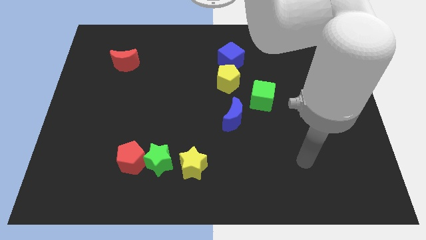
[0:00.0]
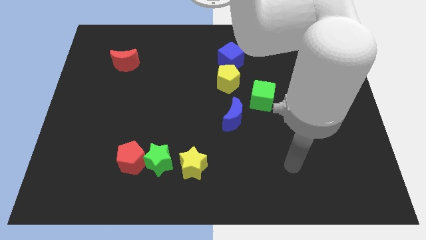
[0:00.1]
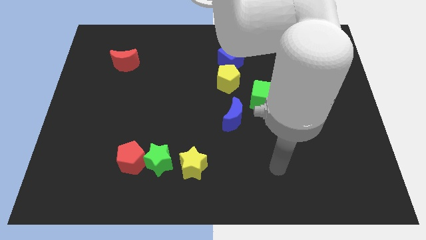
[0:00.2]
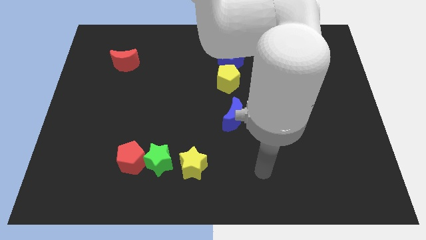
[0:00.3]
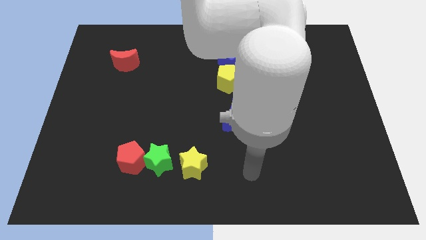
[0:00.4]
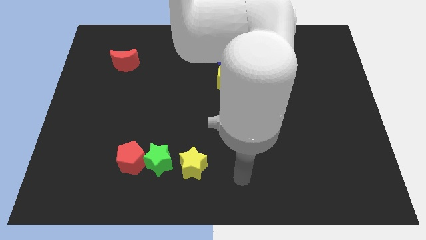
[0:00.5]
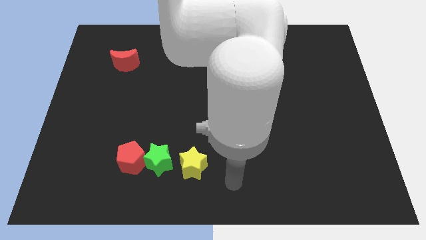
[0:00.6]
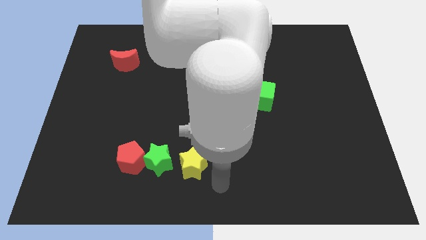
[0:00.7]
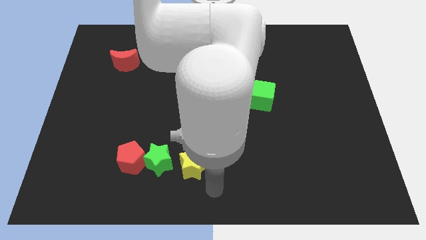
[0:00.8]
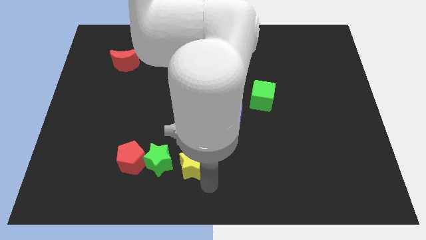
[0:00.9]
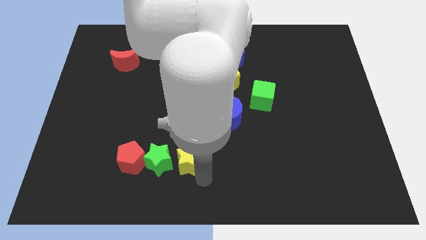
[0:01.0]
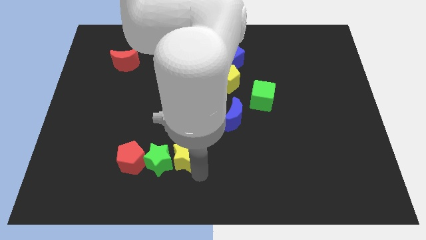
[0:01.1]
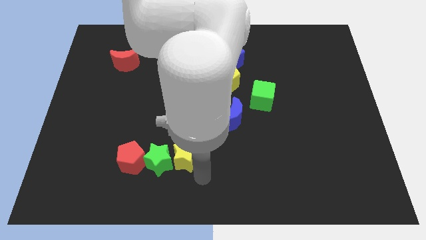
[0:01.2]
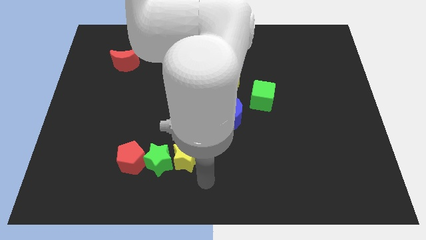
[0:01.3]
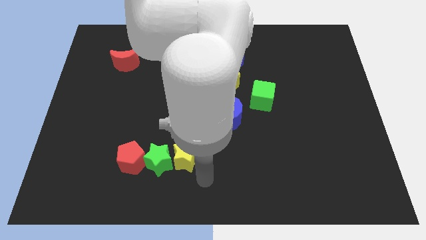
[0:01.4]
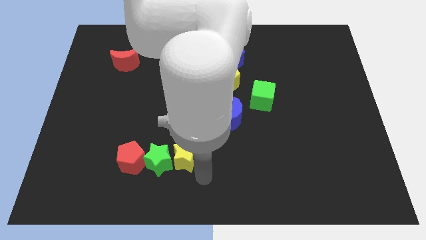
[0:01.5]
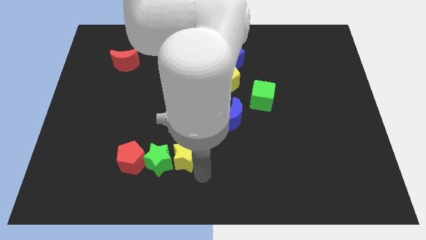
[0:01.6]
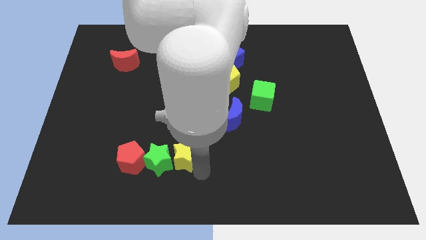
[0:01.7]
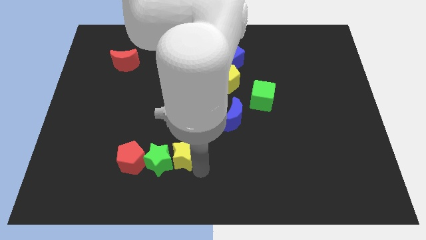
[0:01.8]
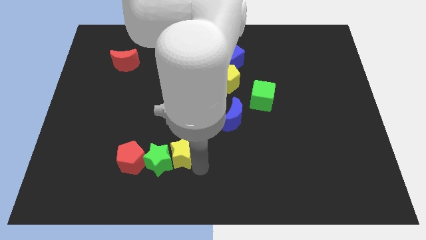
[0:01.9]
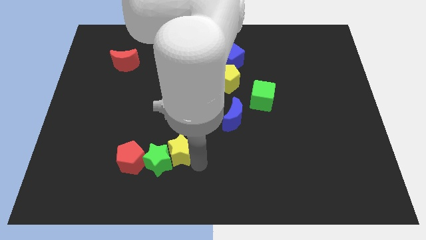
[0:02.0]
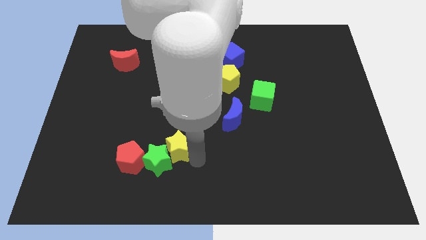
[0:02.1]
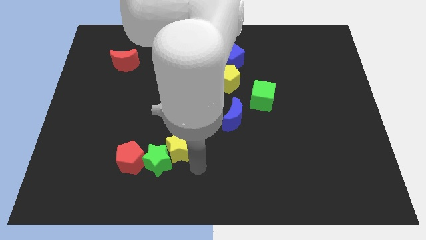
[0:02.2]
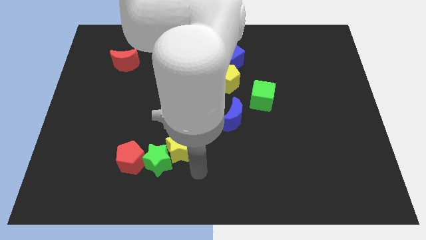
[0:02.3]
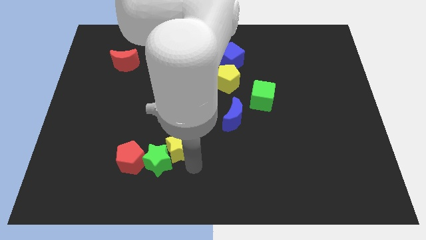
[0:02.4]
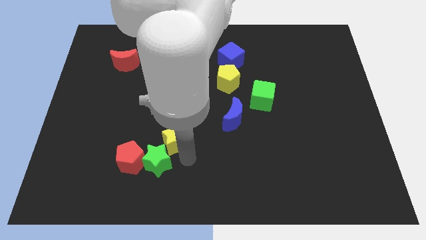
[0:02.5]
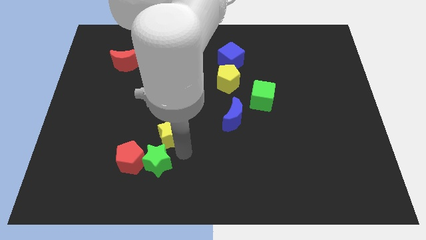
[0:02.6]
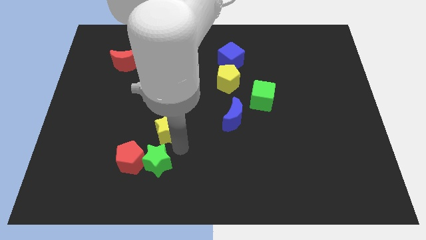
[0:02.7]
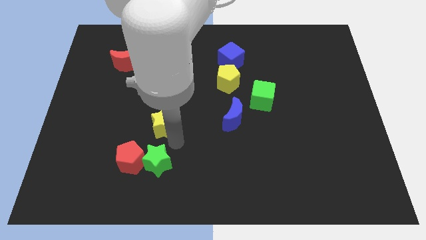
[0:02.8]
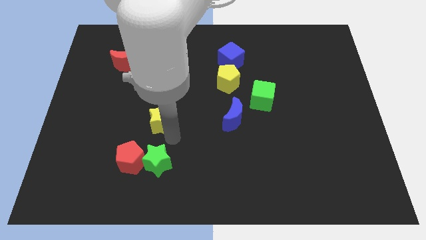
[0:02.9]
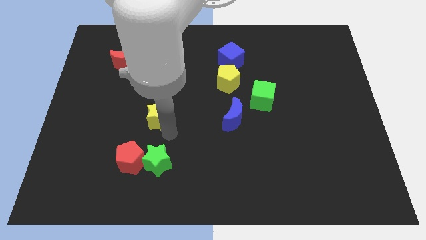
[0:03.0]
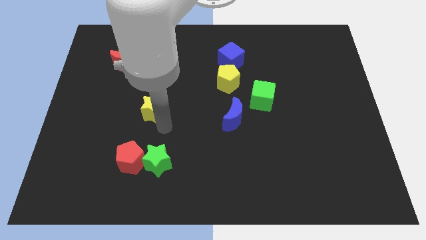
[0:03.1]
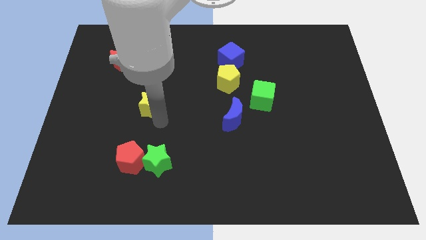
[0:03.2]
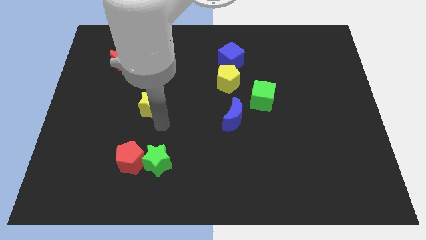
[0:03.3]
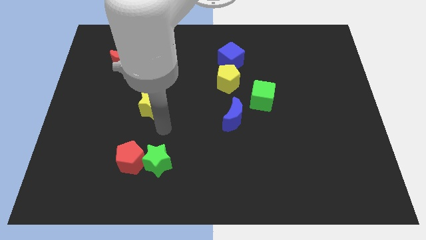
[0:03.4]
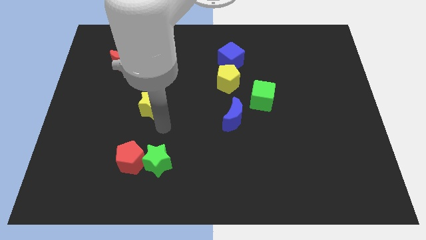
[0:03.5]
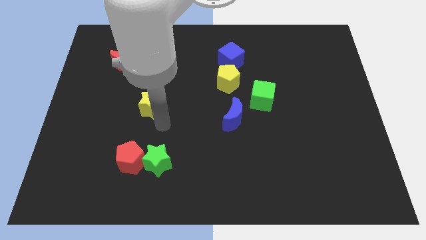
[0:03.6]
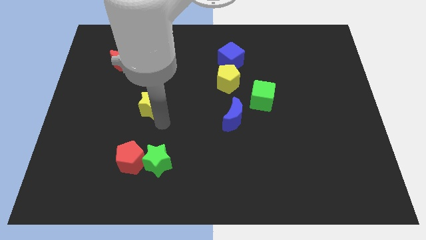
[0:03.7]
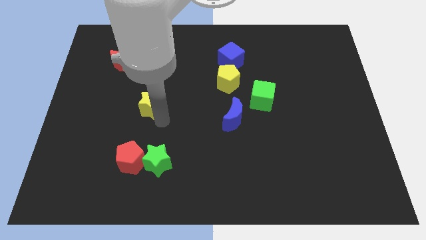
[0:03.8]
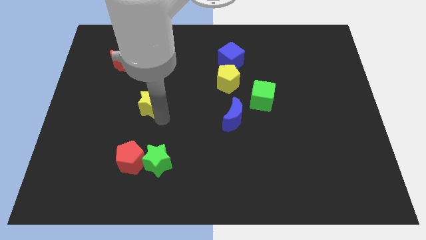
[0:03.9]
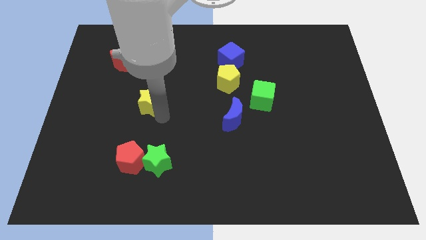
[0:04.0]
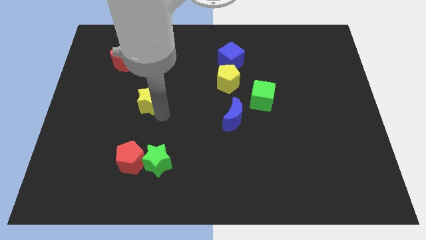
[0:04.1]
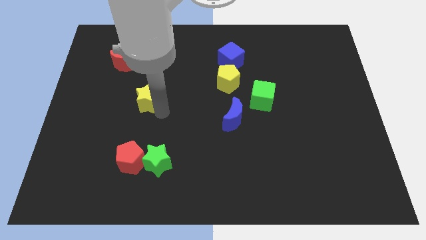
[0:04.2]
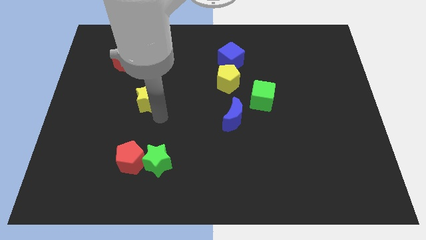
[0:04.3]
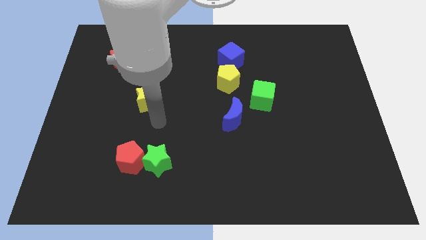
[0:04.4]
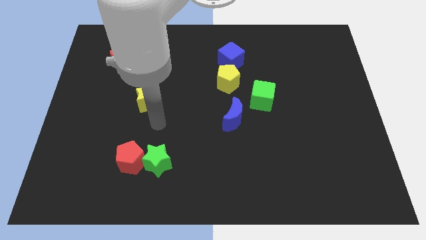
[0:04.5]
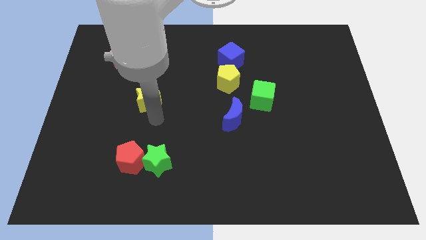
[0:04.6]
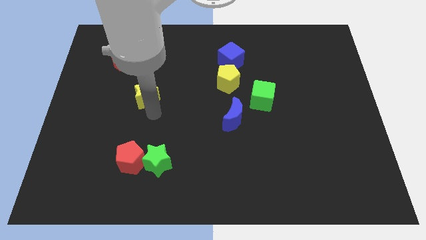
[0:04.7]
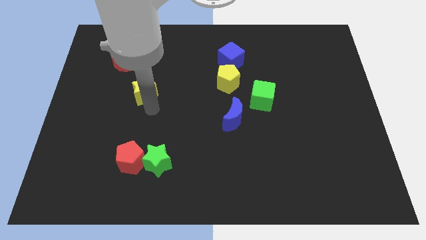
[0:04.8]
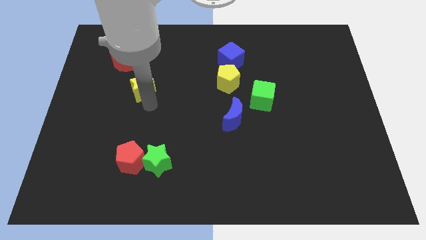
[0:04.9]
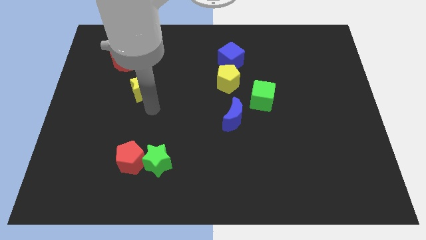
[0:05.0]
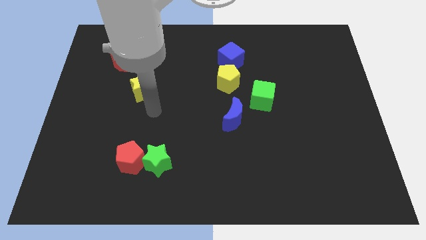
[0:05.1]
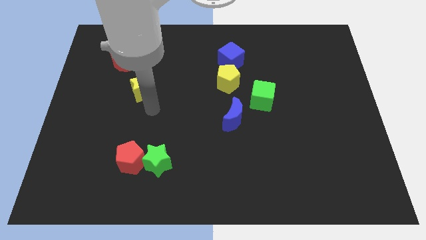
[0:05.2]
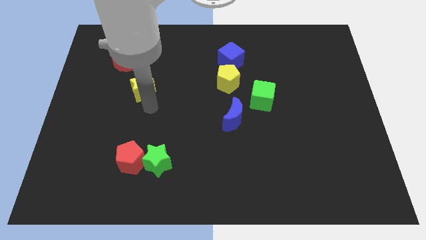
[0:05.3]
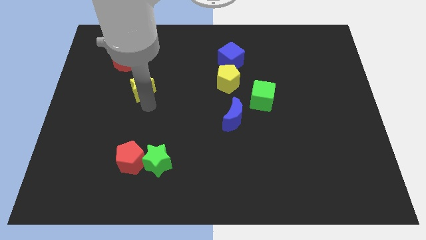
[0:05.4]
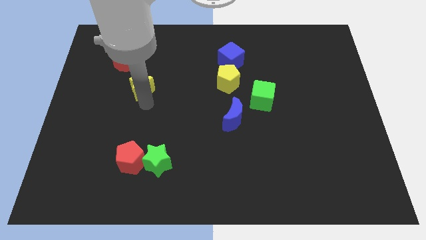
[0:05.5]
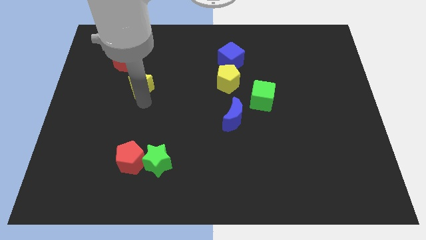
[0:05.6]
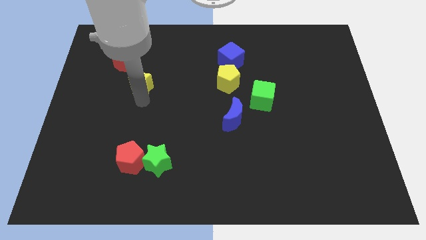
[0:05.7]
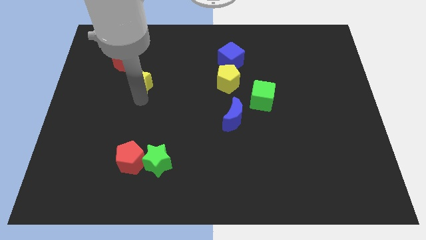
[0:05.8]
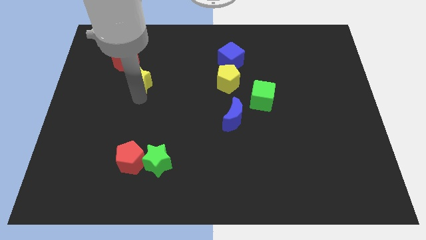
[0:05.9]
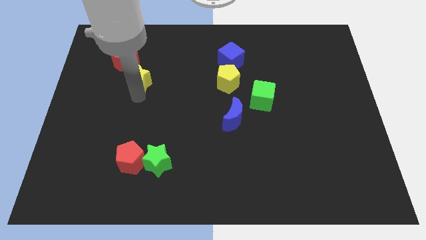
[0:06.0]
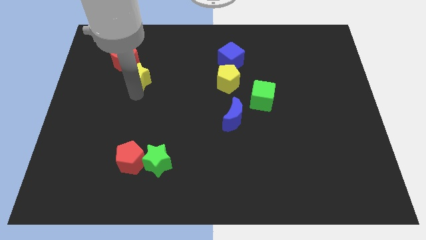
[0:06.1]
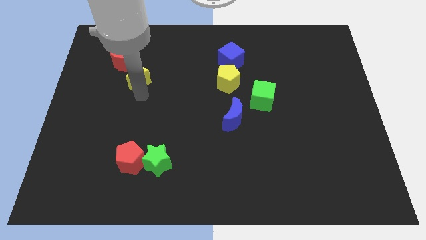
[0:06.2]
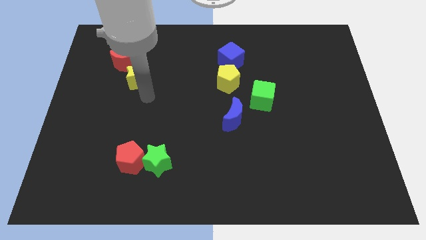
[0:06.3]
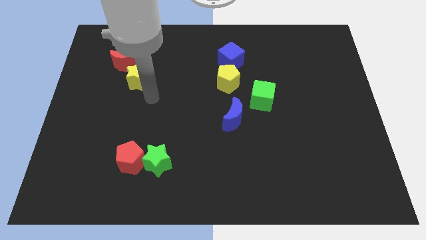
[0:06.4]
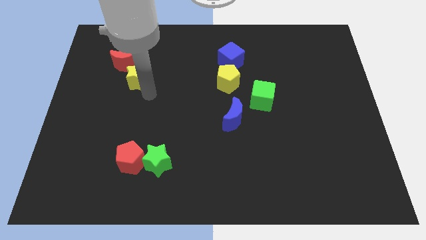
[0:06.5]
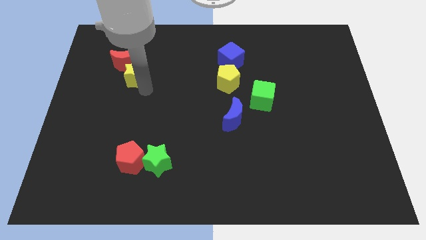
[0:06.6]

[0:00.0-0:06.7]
move the yellow star towards the red moon

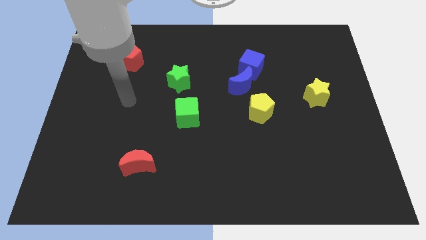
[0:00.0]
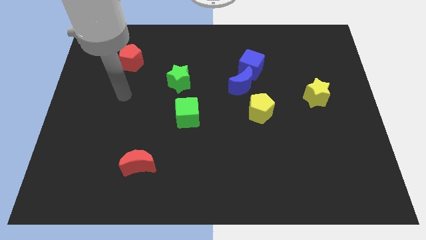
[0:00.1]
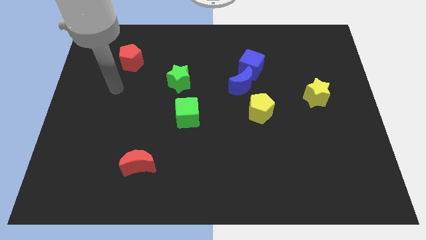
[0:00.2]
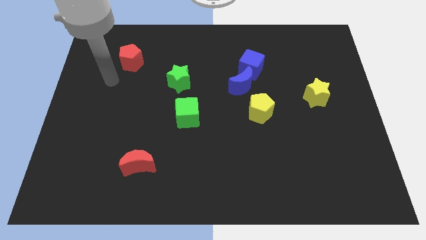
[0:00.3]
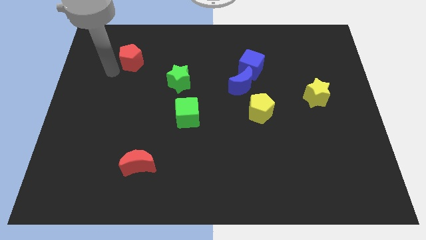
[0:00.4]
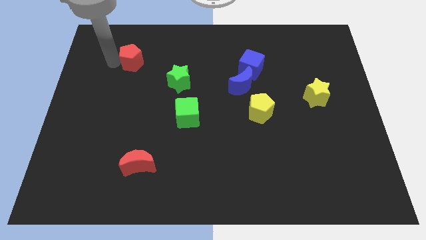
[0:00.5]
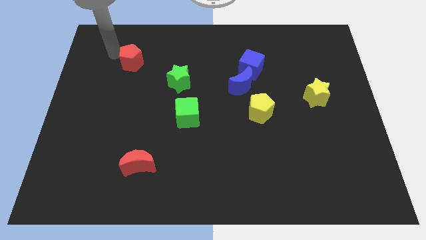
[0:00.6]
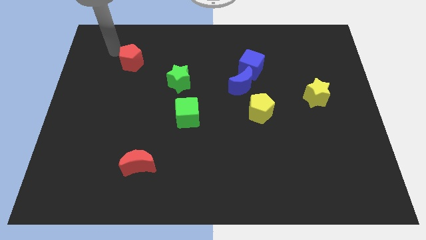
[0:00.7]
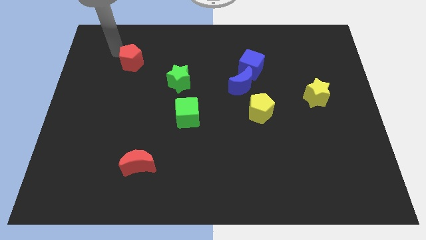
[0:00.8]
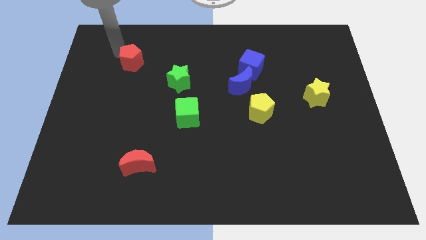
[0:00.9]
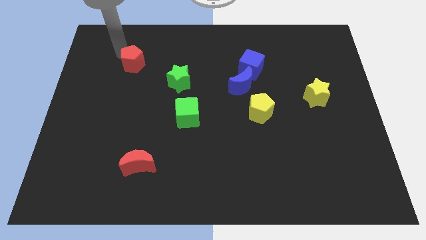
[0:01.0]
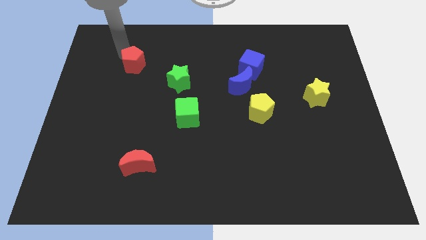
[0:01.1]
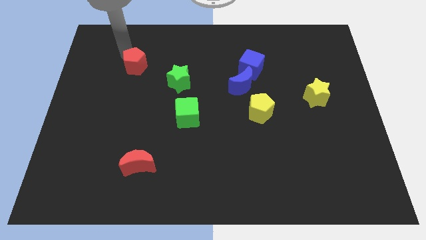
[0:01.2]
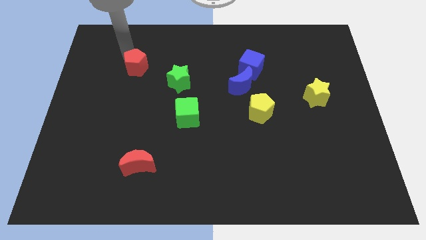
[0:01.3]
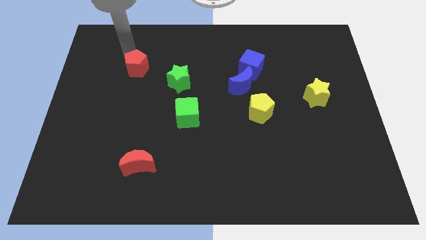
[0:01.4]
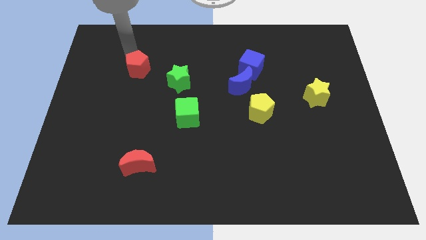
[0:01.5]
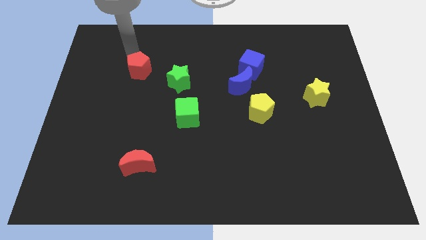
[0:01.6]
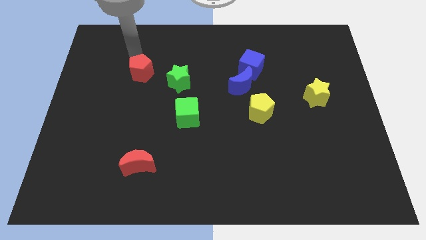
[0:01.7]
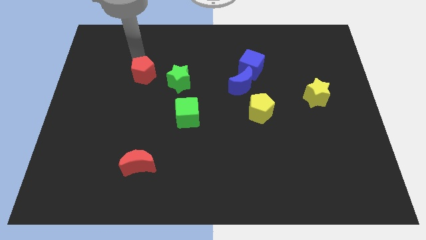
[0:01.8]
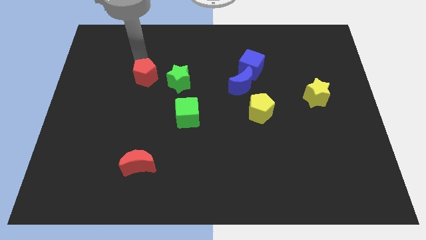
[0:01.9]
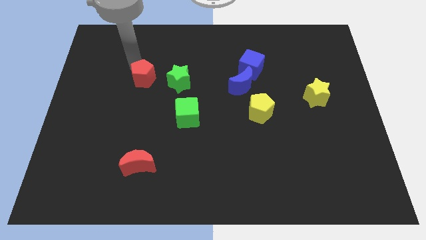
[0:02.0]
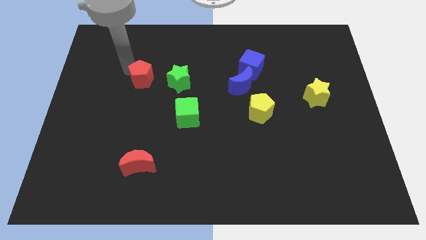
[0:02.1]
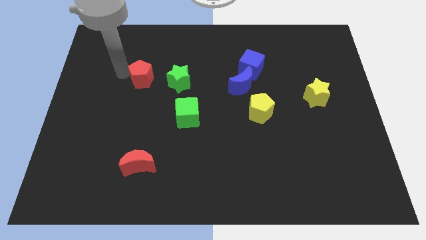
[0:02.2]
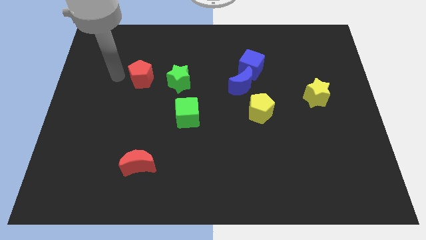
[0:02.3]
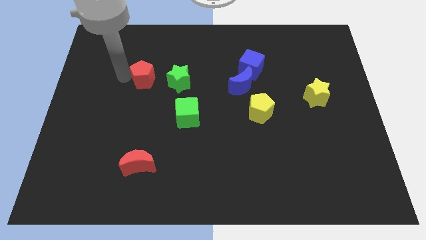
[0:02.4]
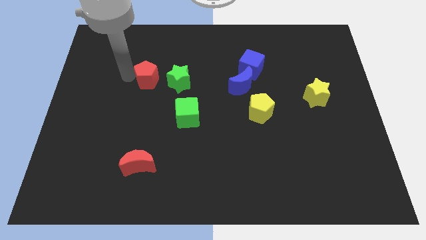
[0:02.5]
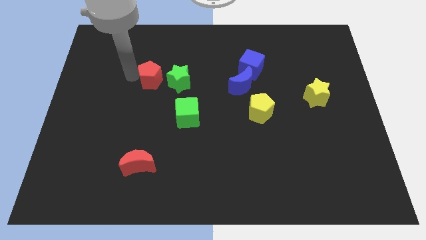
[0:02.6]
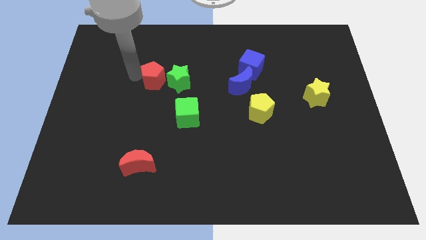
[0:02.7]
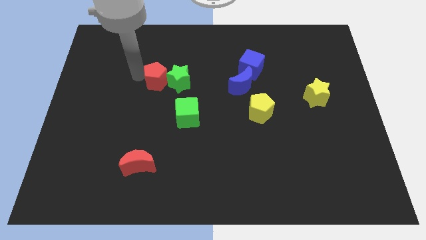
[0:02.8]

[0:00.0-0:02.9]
put the red pentagon close to the green star
